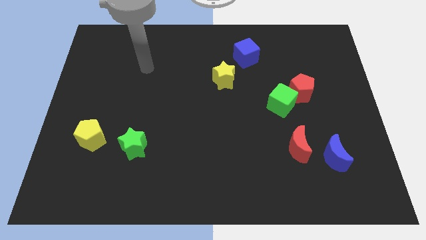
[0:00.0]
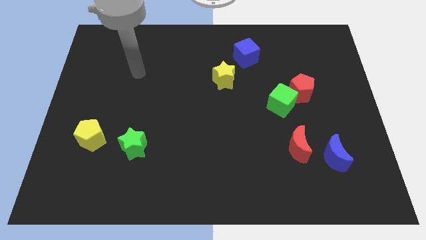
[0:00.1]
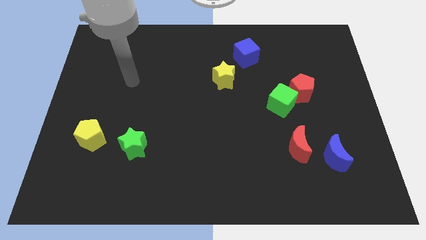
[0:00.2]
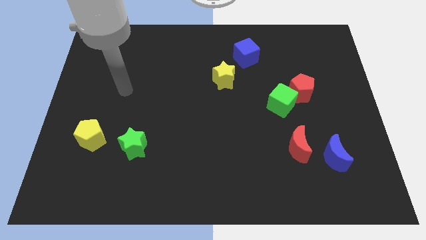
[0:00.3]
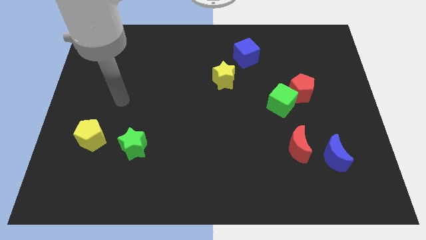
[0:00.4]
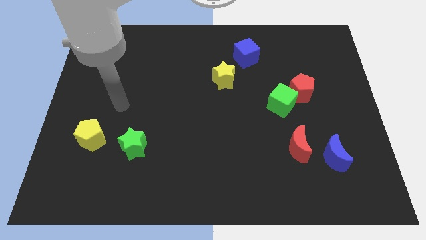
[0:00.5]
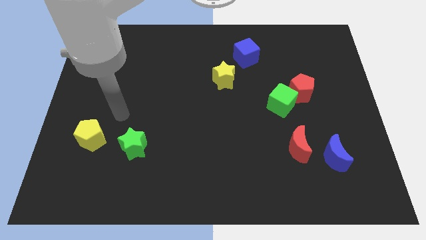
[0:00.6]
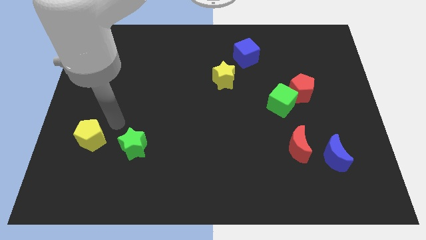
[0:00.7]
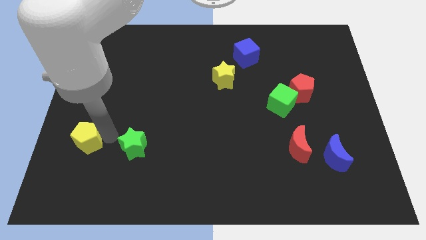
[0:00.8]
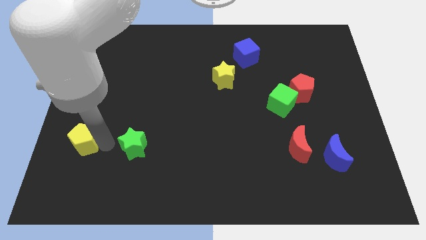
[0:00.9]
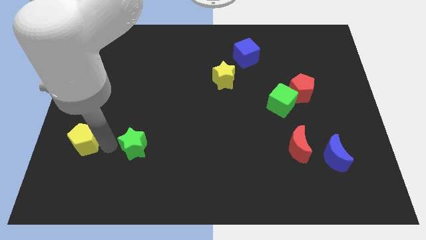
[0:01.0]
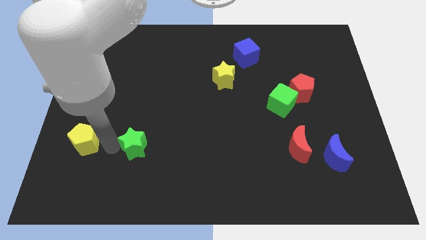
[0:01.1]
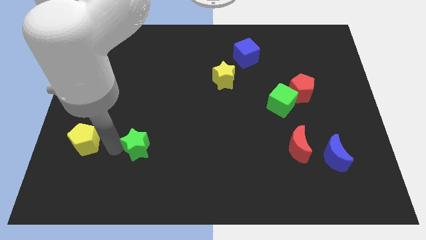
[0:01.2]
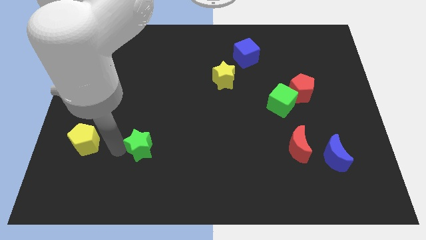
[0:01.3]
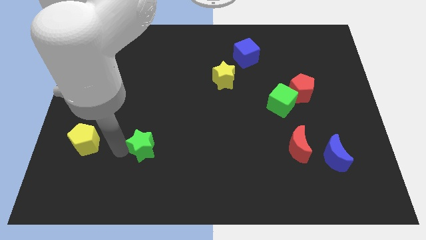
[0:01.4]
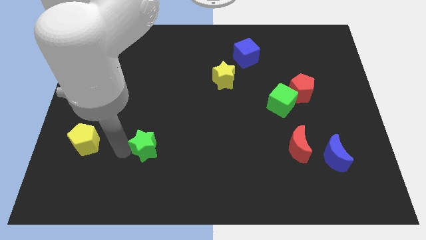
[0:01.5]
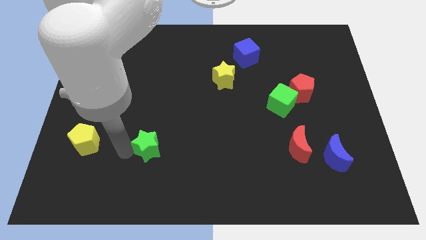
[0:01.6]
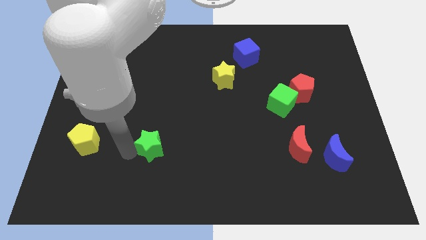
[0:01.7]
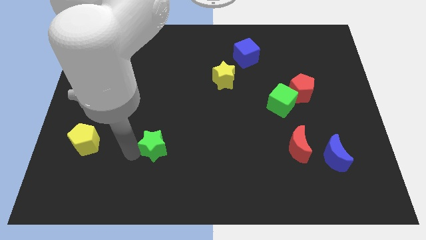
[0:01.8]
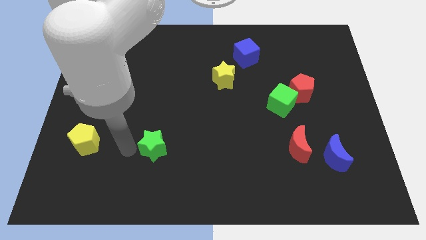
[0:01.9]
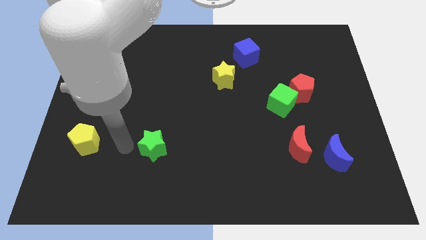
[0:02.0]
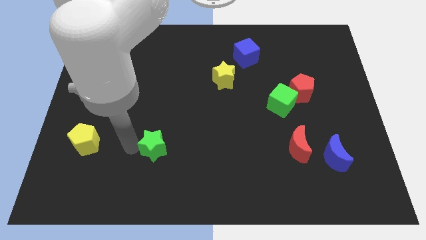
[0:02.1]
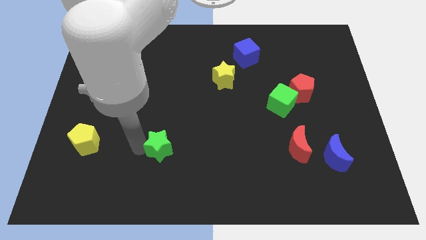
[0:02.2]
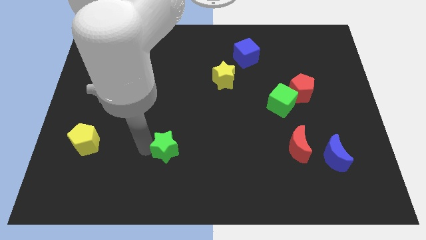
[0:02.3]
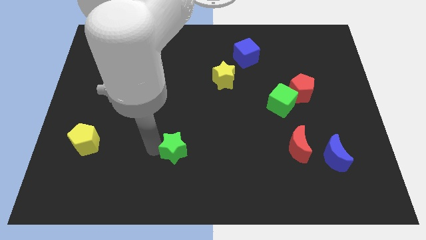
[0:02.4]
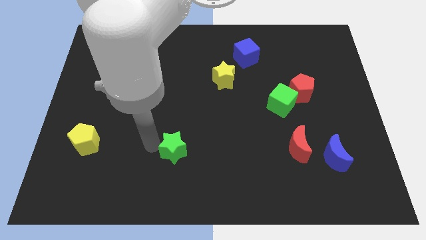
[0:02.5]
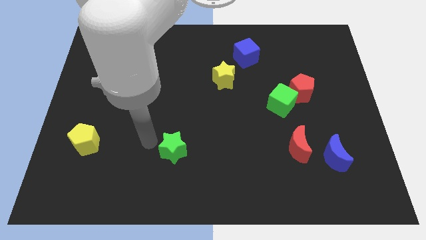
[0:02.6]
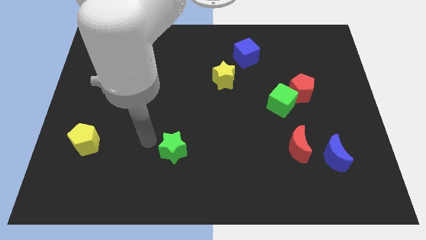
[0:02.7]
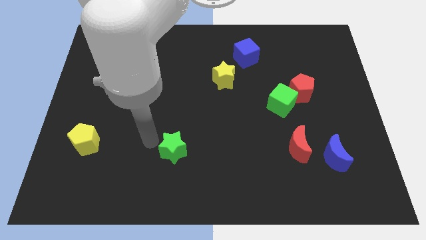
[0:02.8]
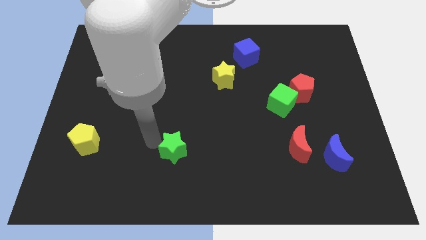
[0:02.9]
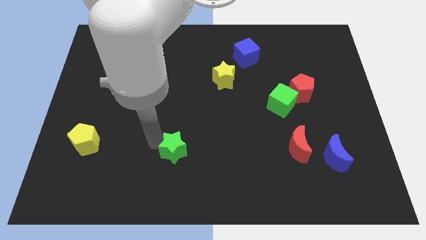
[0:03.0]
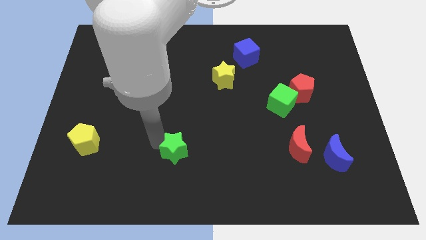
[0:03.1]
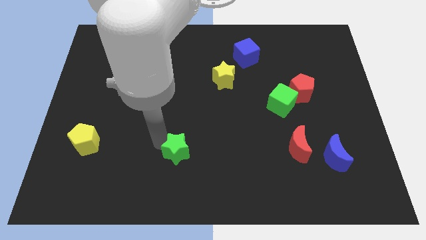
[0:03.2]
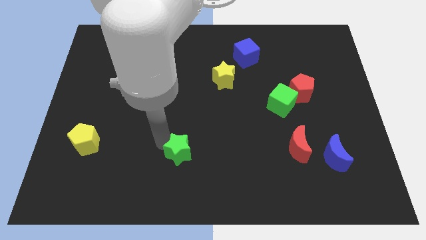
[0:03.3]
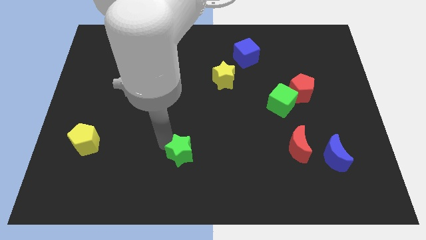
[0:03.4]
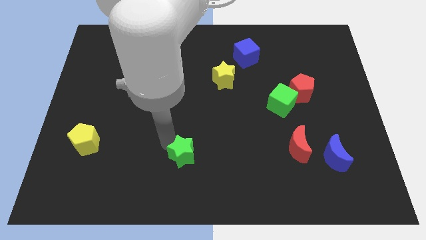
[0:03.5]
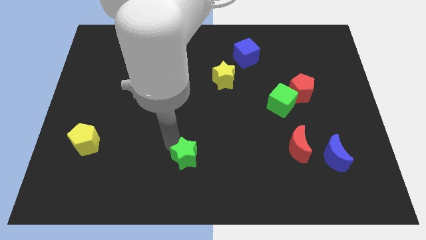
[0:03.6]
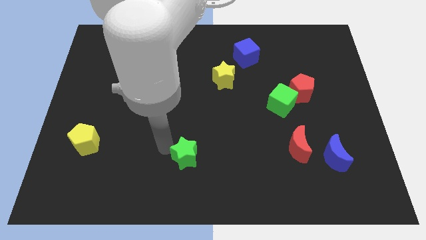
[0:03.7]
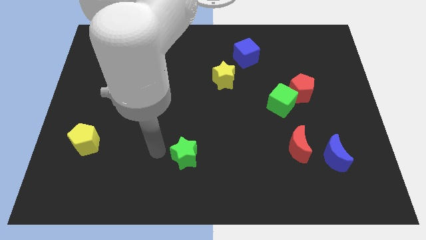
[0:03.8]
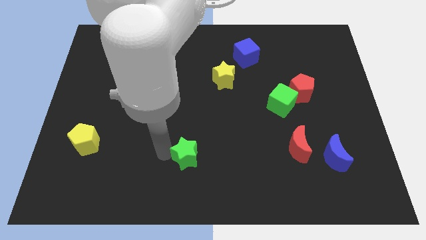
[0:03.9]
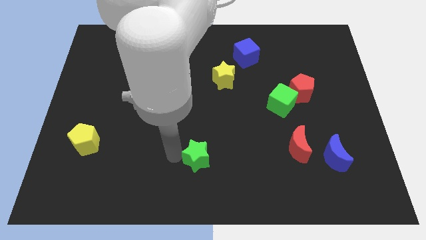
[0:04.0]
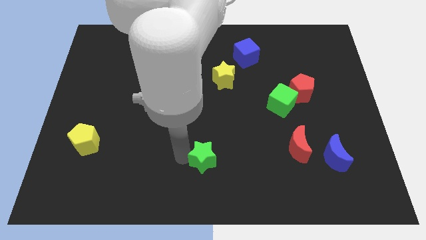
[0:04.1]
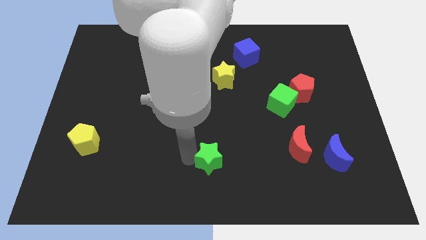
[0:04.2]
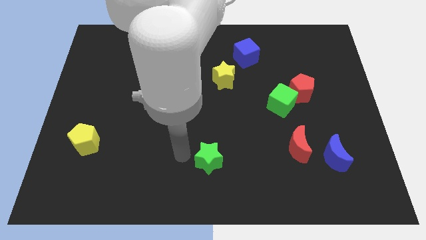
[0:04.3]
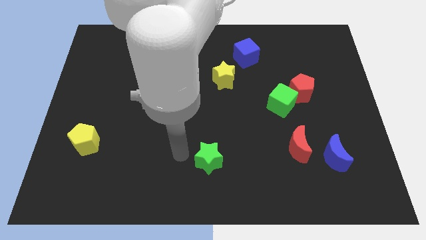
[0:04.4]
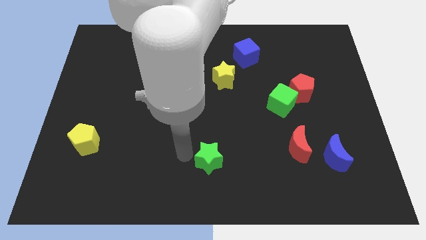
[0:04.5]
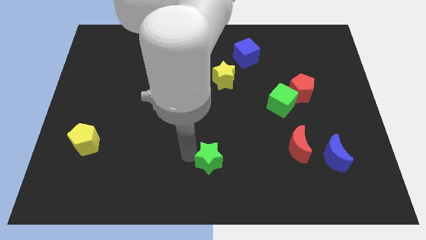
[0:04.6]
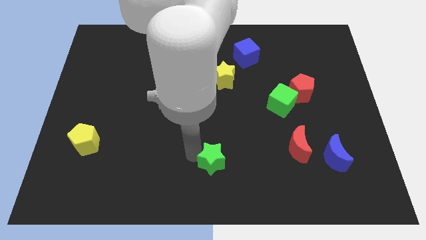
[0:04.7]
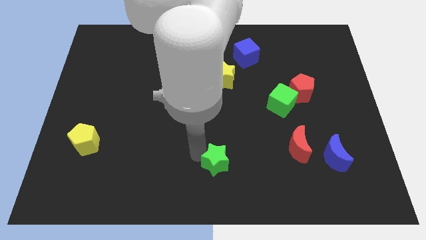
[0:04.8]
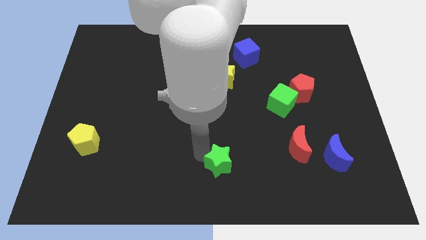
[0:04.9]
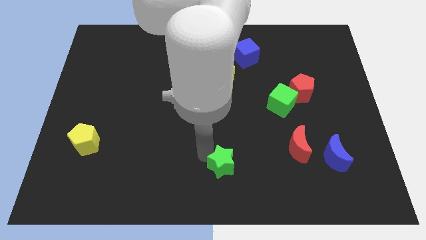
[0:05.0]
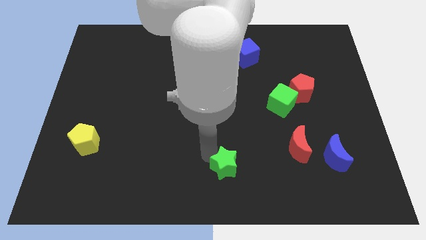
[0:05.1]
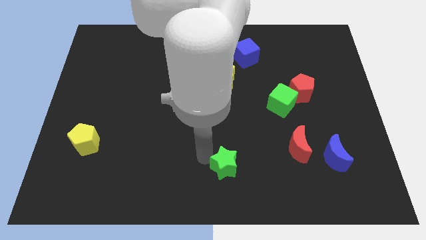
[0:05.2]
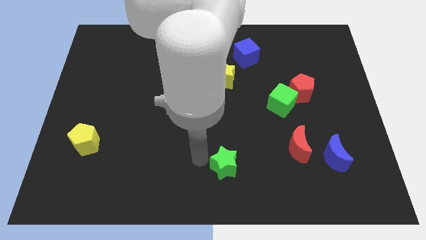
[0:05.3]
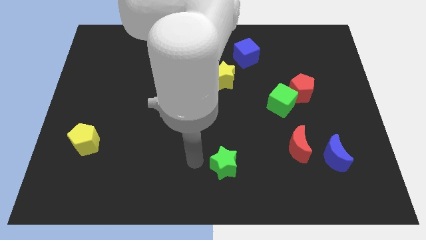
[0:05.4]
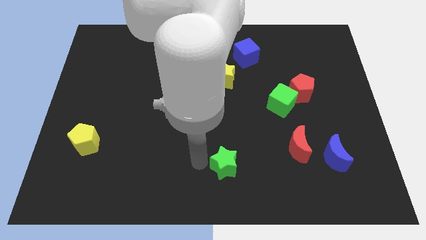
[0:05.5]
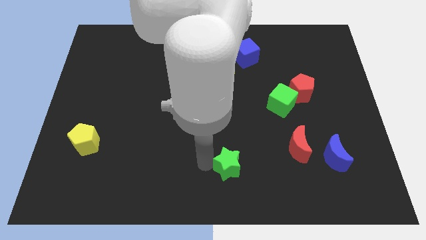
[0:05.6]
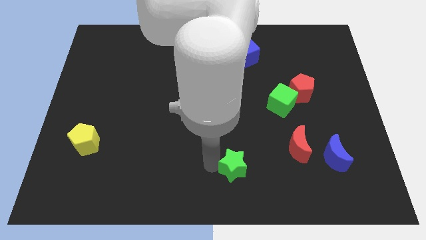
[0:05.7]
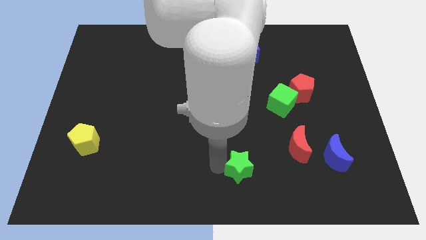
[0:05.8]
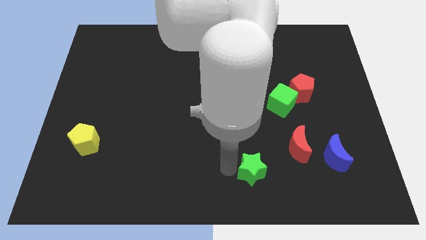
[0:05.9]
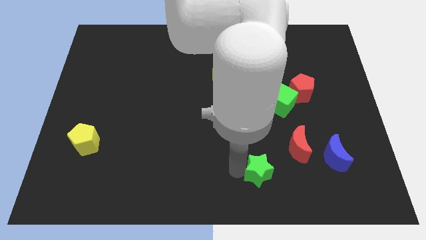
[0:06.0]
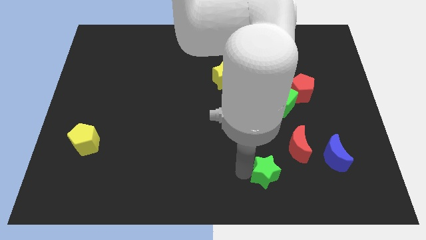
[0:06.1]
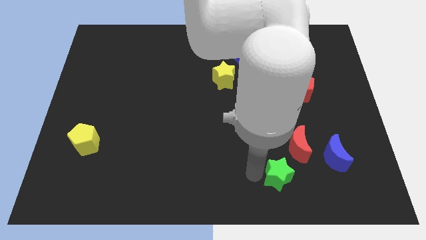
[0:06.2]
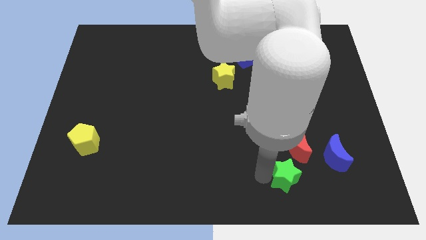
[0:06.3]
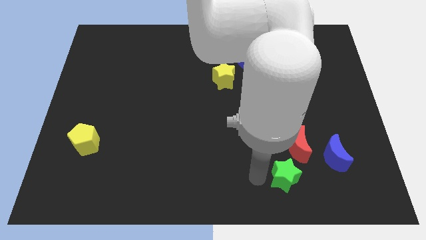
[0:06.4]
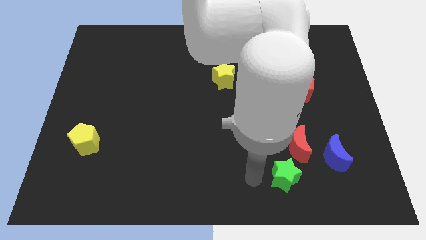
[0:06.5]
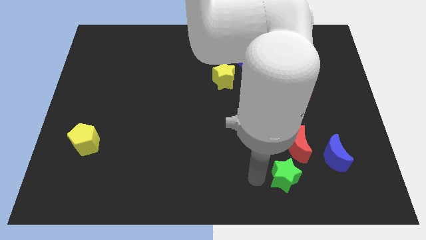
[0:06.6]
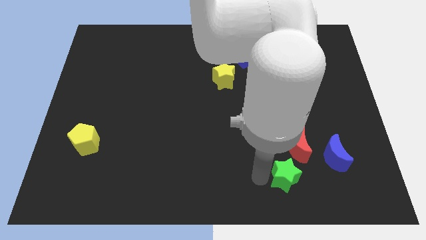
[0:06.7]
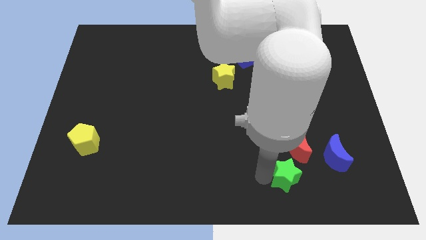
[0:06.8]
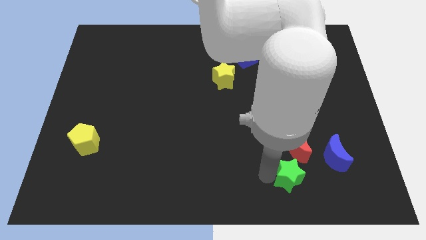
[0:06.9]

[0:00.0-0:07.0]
put the green star to the bottom left side of the blue moon
